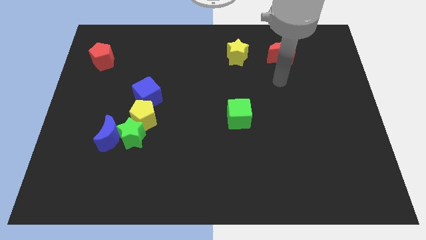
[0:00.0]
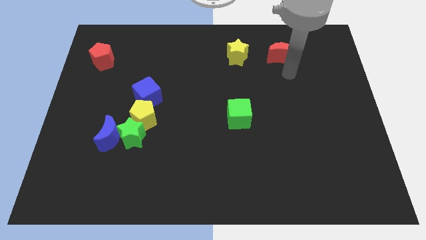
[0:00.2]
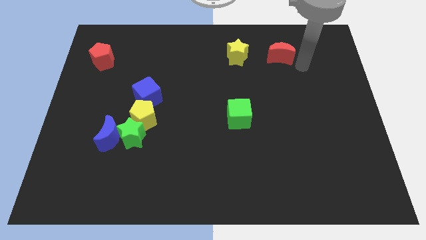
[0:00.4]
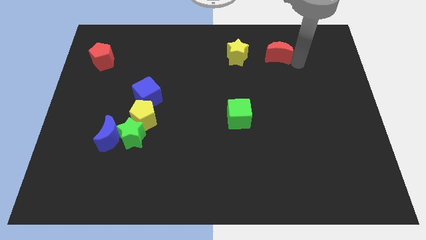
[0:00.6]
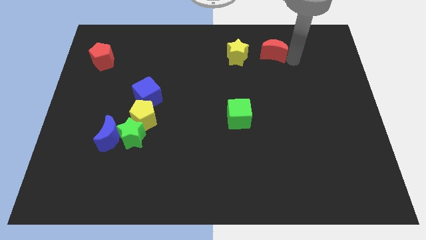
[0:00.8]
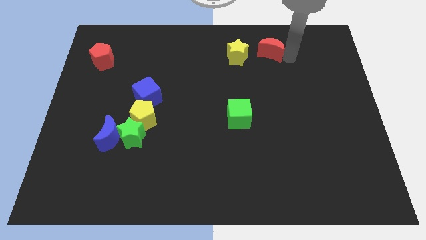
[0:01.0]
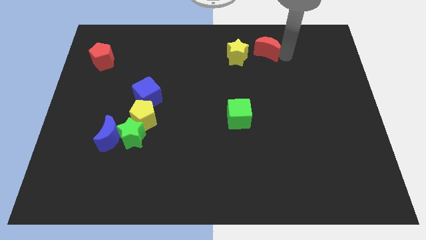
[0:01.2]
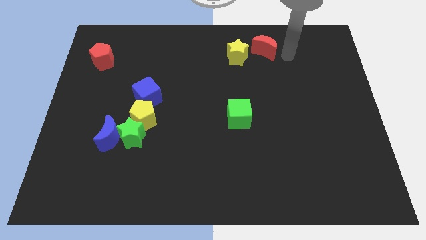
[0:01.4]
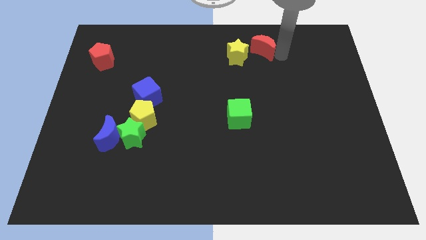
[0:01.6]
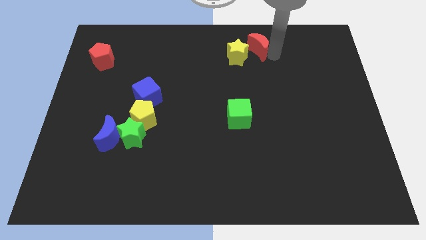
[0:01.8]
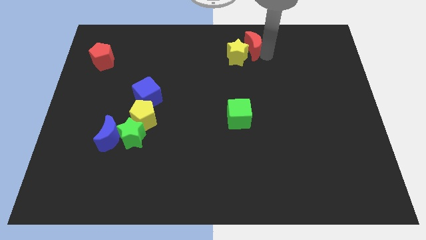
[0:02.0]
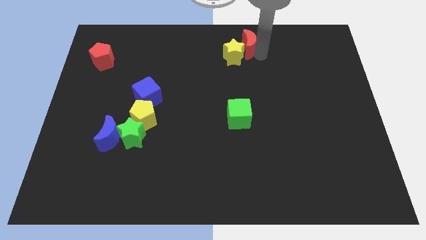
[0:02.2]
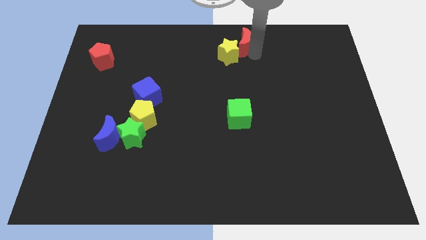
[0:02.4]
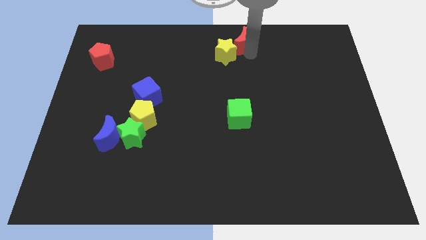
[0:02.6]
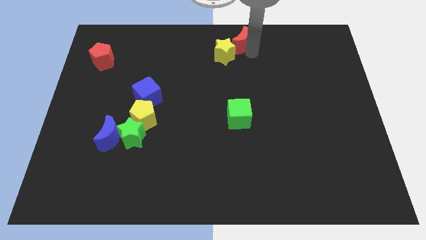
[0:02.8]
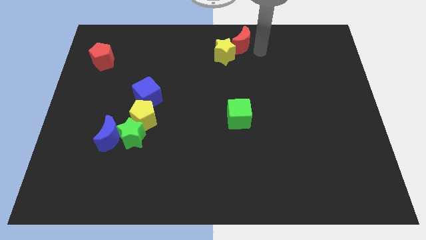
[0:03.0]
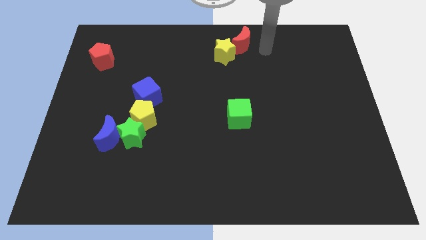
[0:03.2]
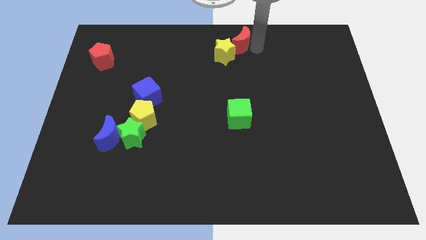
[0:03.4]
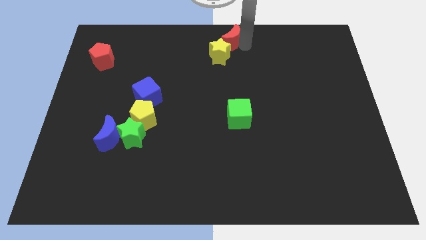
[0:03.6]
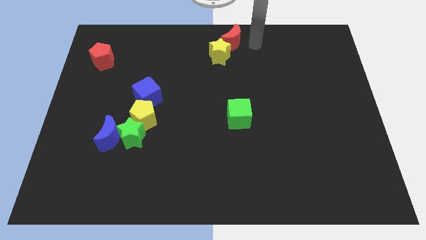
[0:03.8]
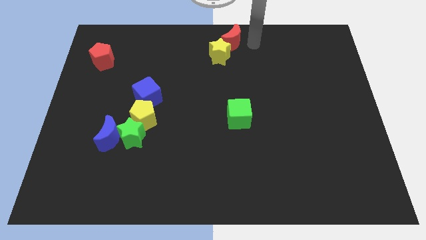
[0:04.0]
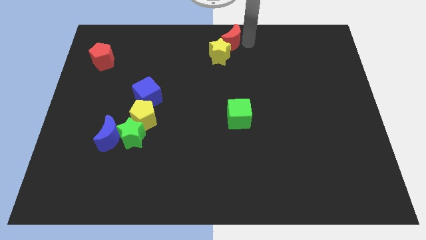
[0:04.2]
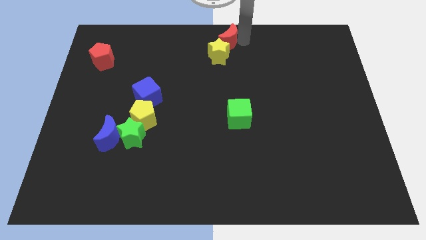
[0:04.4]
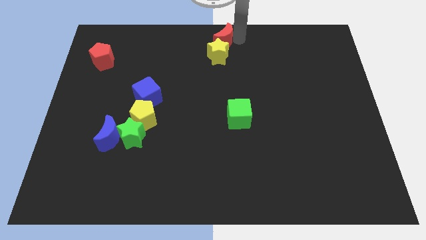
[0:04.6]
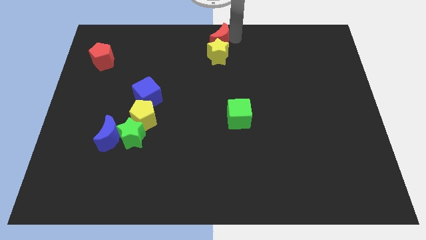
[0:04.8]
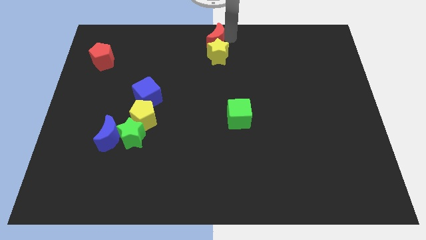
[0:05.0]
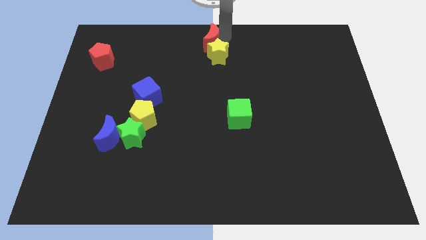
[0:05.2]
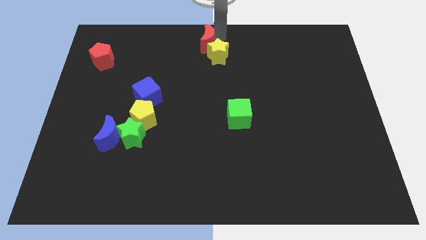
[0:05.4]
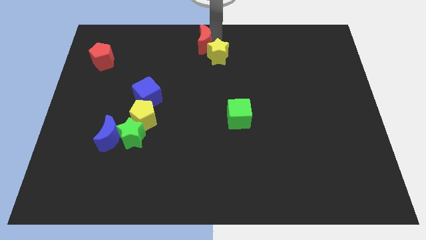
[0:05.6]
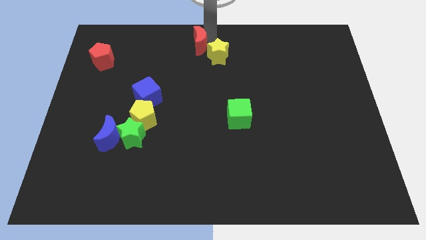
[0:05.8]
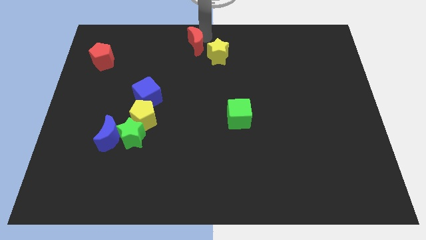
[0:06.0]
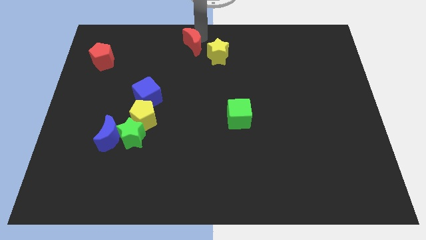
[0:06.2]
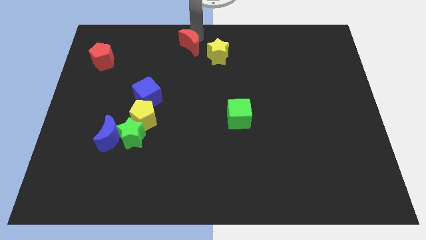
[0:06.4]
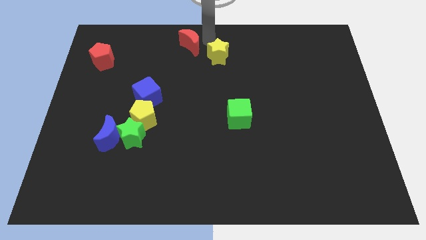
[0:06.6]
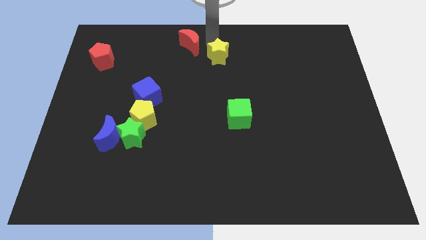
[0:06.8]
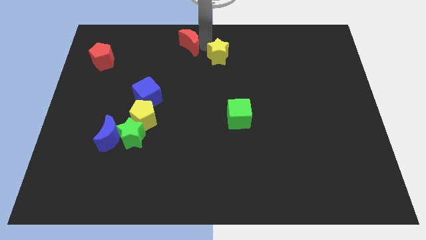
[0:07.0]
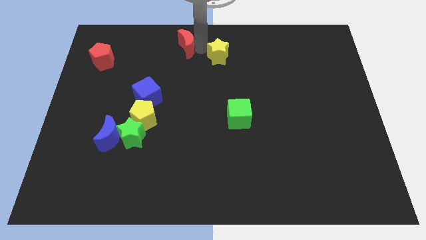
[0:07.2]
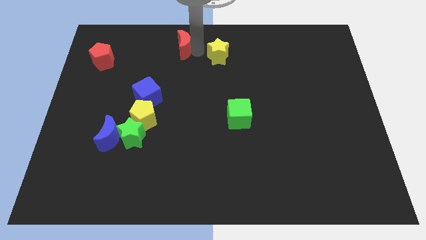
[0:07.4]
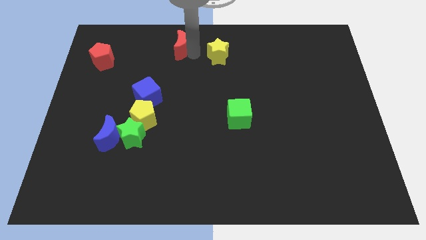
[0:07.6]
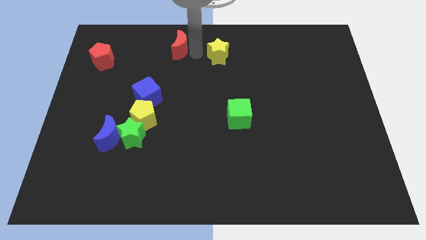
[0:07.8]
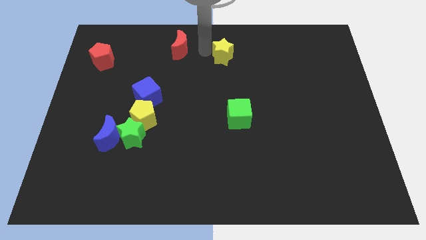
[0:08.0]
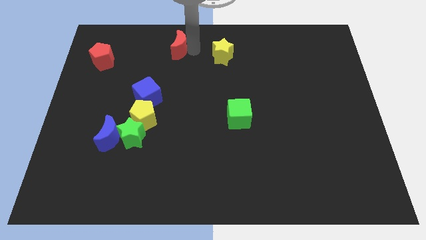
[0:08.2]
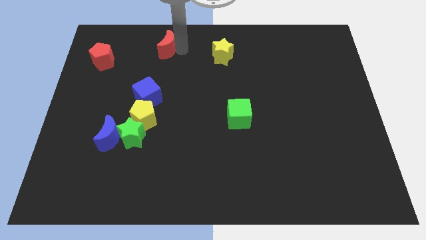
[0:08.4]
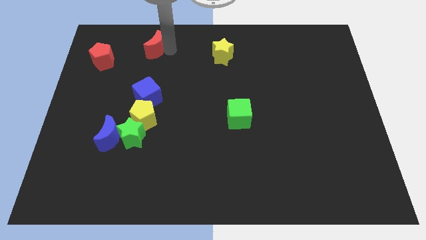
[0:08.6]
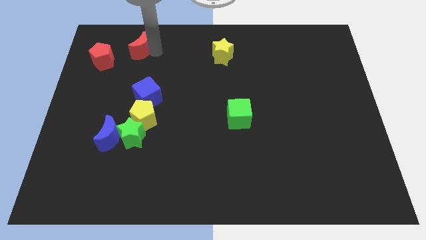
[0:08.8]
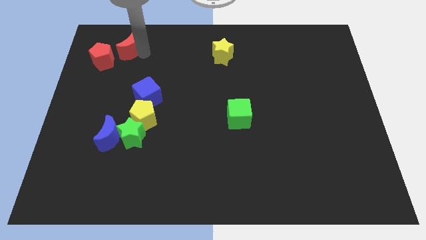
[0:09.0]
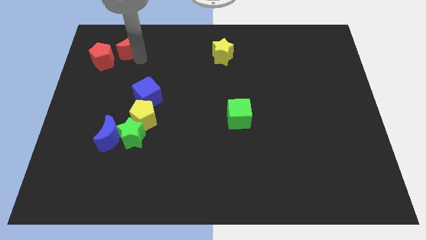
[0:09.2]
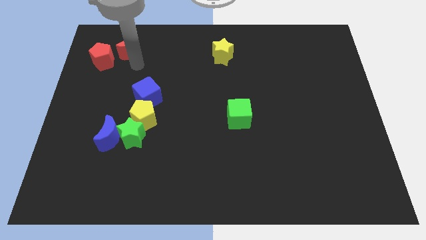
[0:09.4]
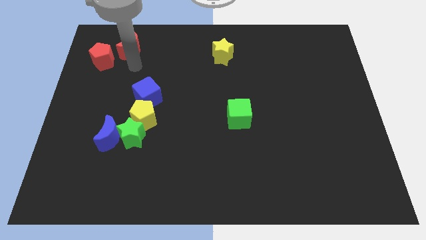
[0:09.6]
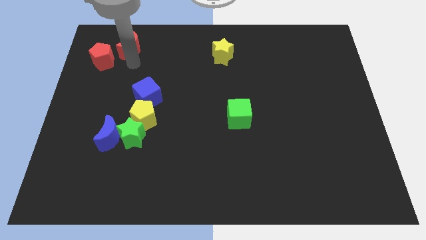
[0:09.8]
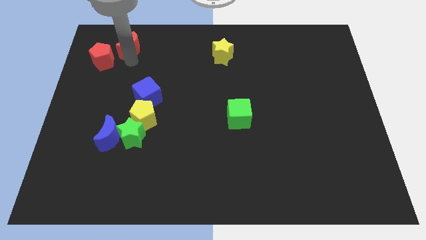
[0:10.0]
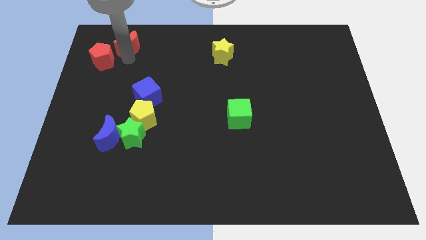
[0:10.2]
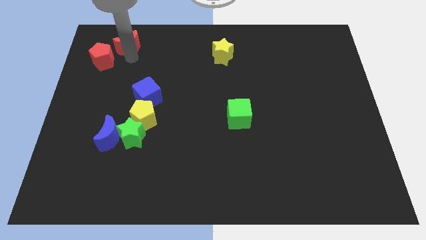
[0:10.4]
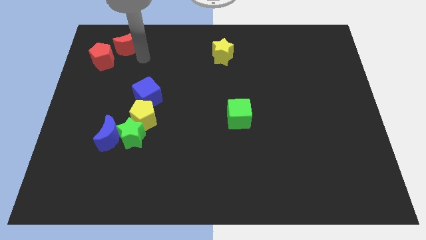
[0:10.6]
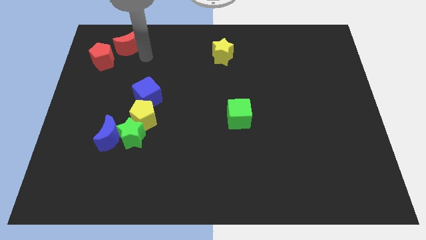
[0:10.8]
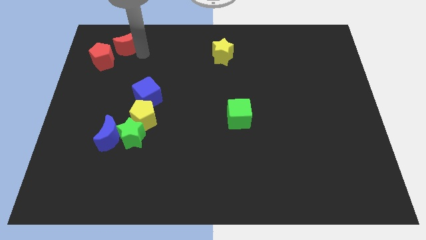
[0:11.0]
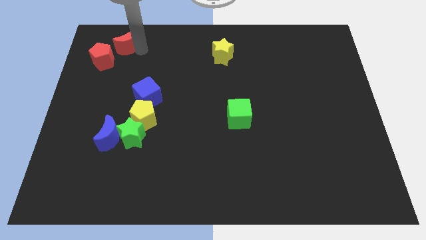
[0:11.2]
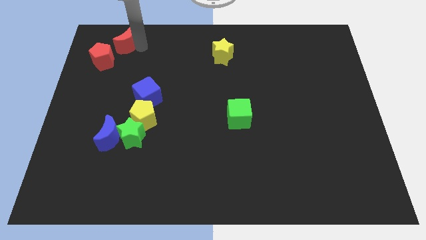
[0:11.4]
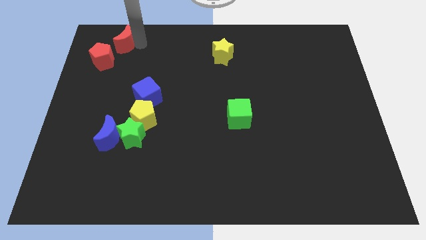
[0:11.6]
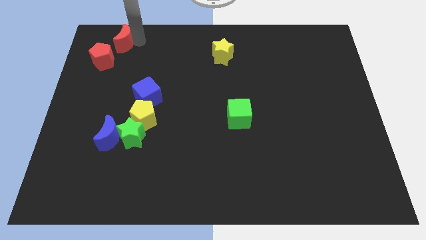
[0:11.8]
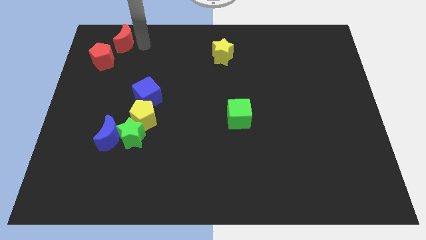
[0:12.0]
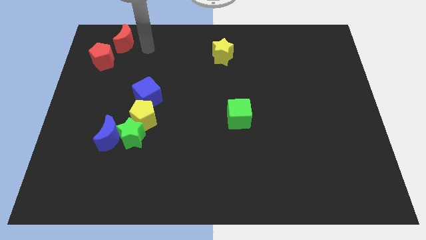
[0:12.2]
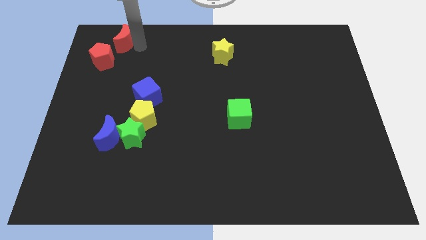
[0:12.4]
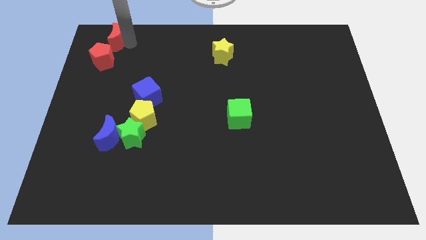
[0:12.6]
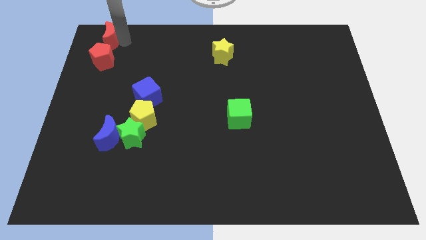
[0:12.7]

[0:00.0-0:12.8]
slide the red moon to the upper left corner
